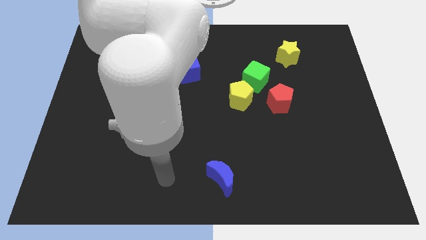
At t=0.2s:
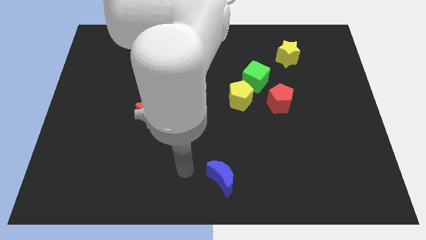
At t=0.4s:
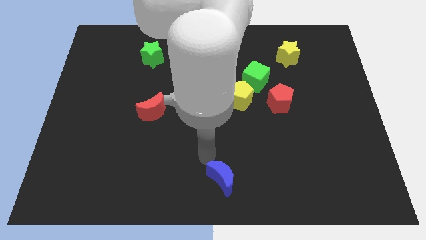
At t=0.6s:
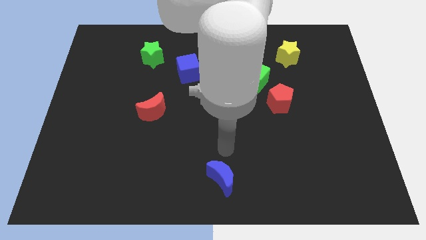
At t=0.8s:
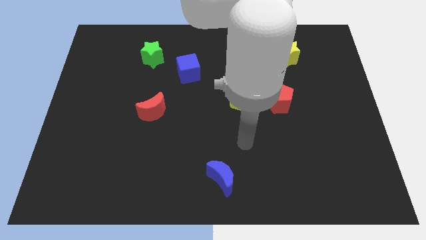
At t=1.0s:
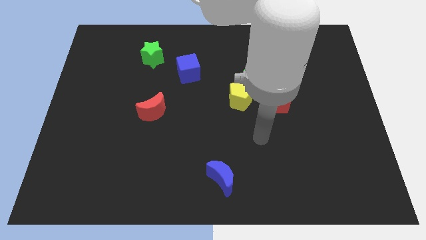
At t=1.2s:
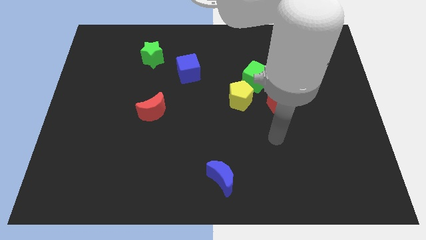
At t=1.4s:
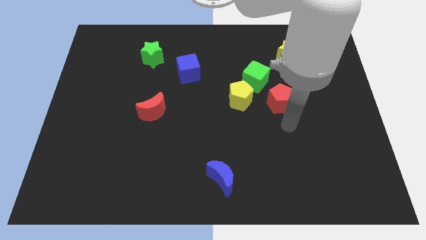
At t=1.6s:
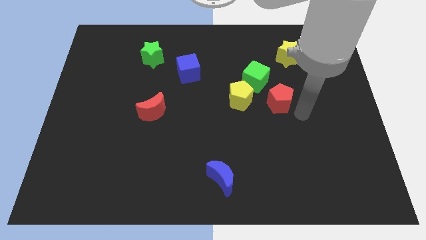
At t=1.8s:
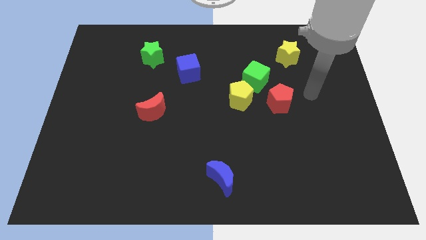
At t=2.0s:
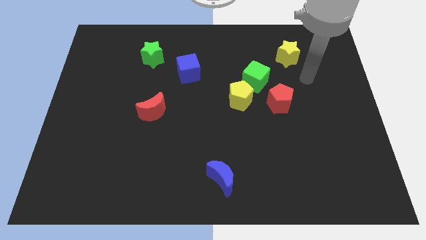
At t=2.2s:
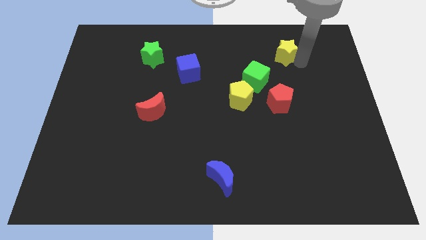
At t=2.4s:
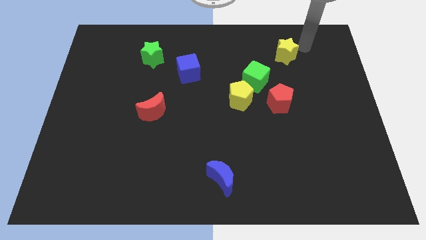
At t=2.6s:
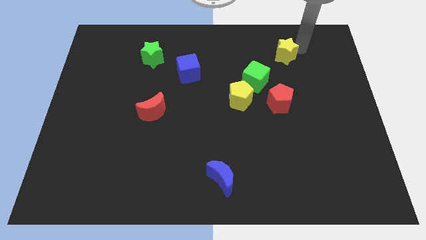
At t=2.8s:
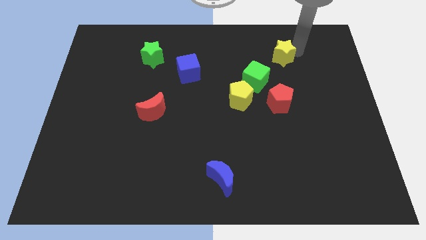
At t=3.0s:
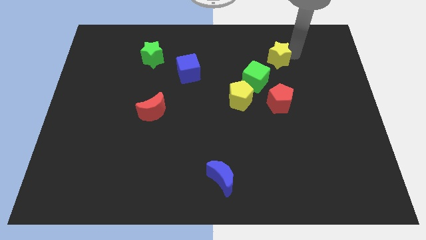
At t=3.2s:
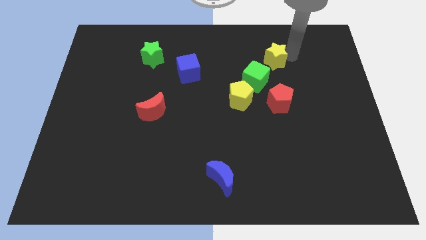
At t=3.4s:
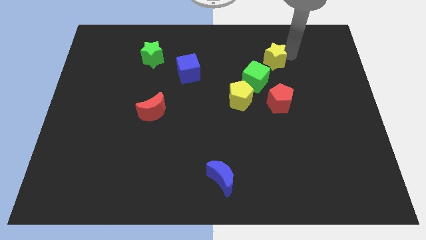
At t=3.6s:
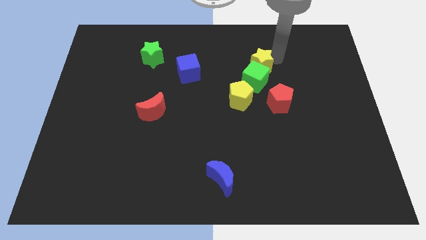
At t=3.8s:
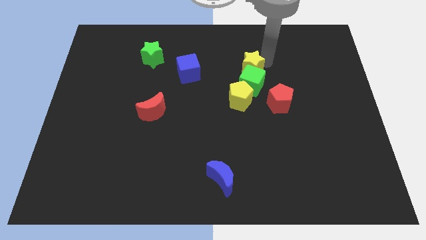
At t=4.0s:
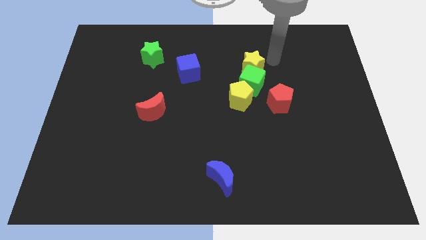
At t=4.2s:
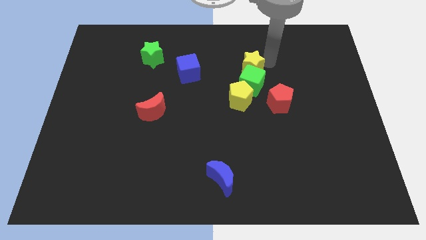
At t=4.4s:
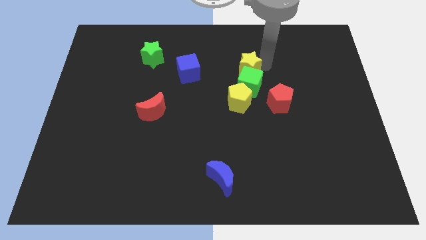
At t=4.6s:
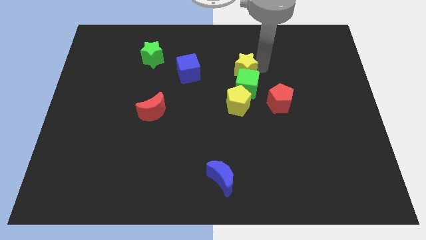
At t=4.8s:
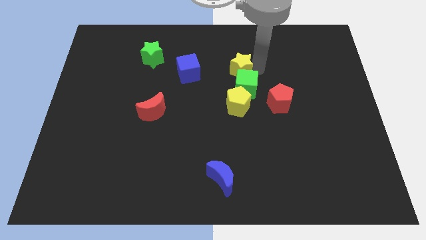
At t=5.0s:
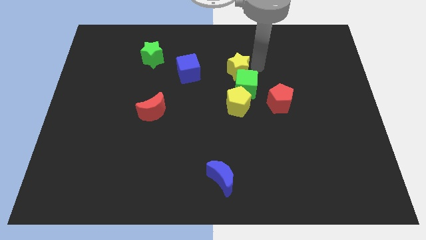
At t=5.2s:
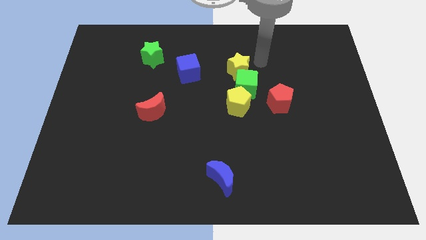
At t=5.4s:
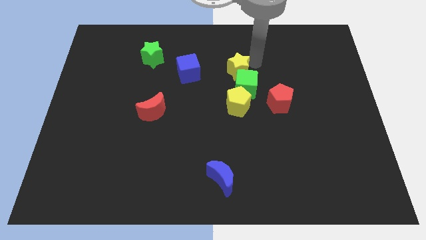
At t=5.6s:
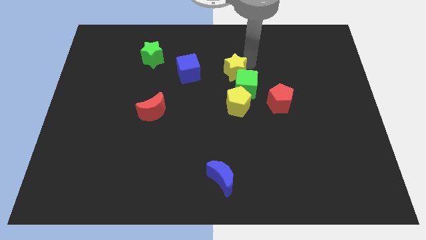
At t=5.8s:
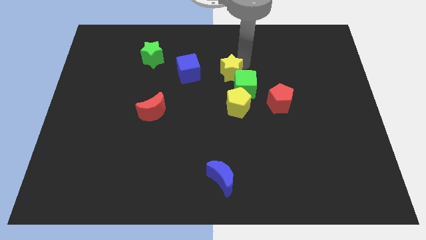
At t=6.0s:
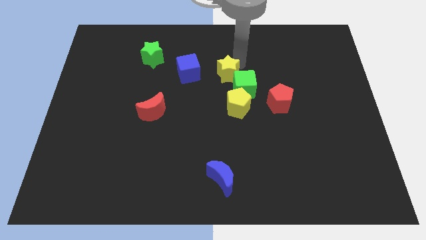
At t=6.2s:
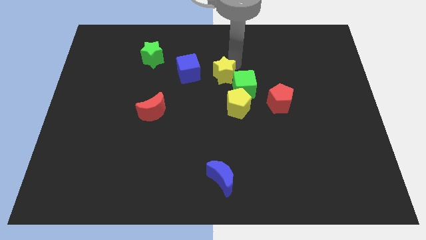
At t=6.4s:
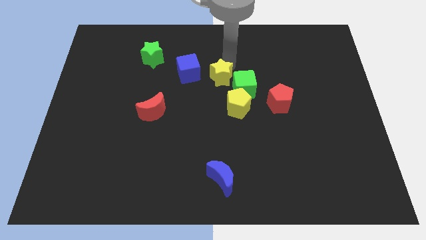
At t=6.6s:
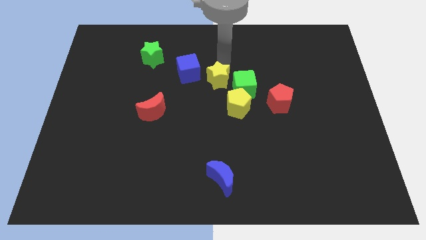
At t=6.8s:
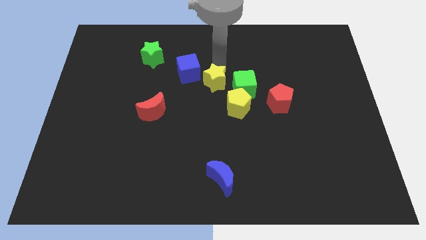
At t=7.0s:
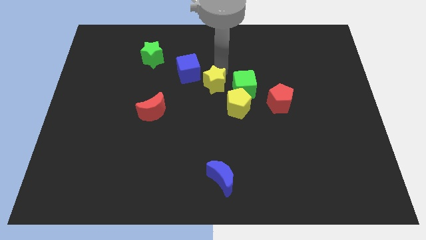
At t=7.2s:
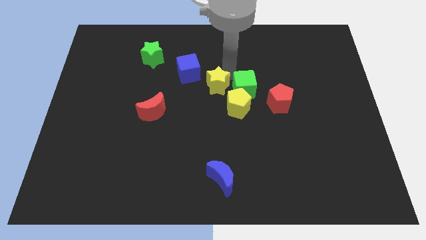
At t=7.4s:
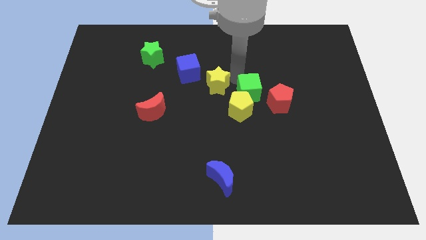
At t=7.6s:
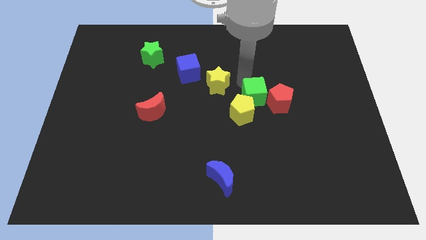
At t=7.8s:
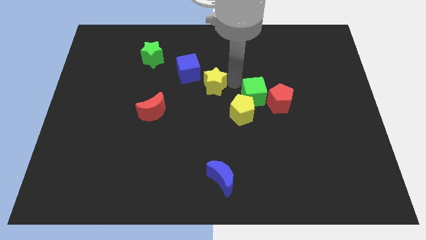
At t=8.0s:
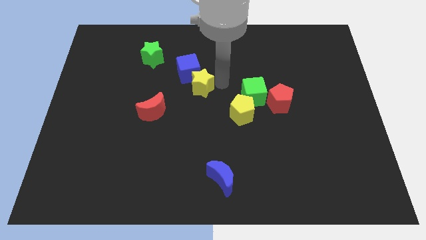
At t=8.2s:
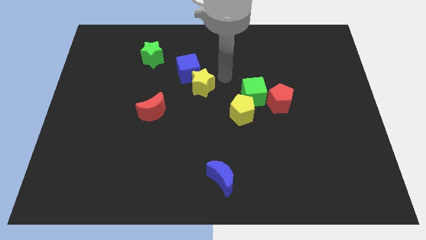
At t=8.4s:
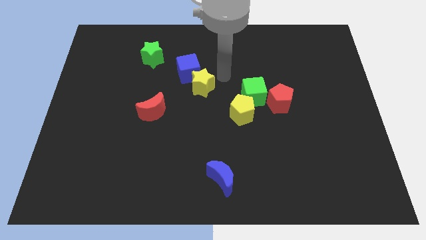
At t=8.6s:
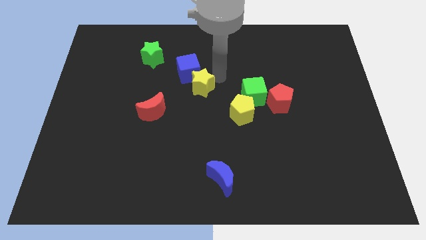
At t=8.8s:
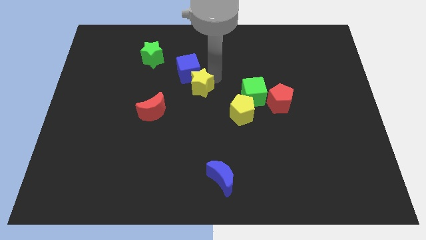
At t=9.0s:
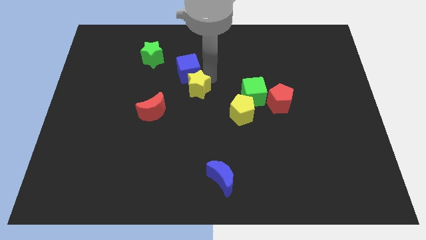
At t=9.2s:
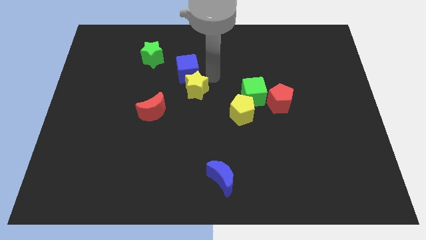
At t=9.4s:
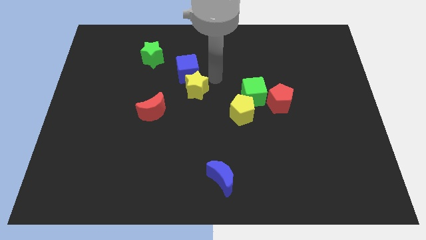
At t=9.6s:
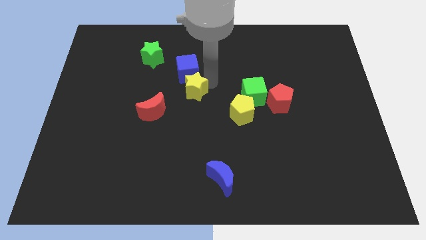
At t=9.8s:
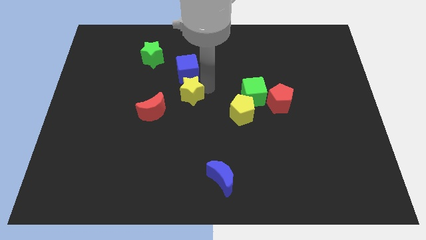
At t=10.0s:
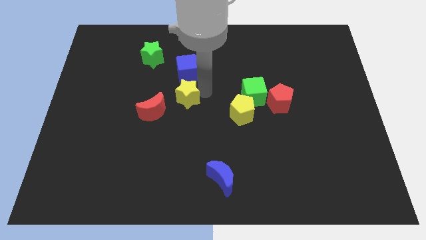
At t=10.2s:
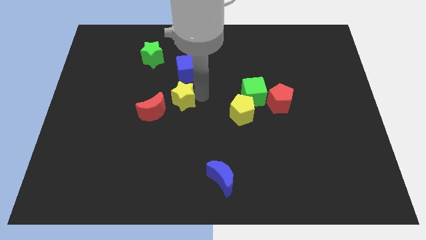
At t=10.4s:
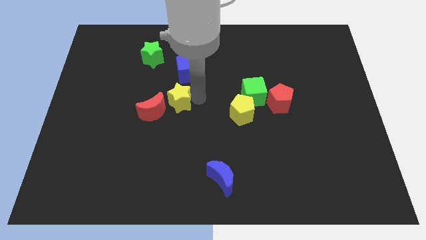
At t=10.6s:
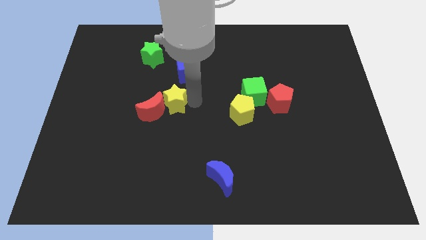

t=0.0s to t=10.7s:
push the yellow star close to the red moon

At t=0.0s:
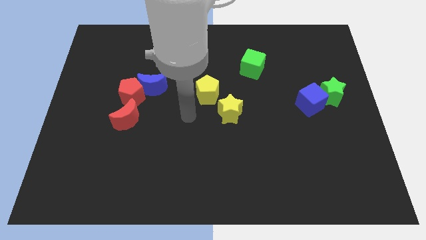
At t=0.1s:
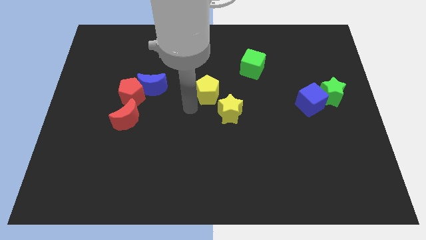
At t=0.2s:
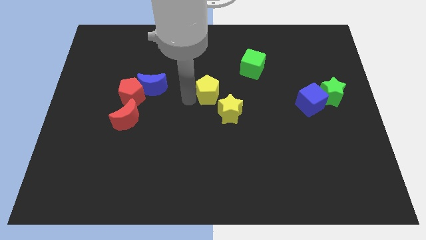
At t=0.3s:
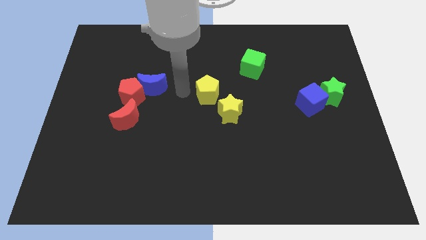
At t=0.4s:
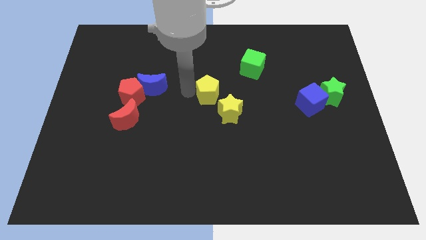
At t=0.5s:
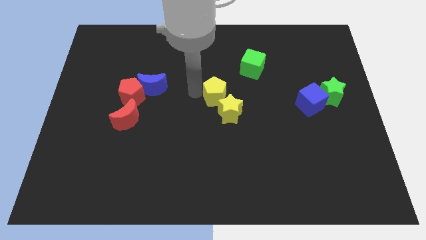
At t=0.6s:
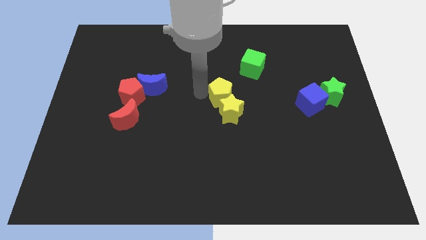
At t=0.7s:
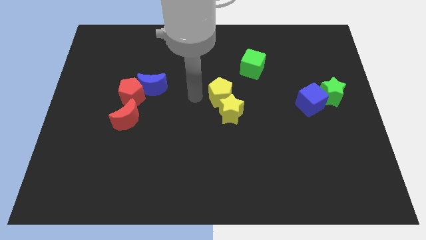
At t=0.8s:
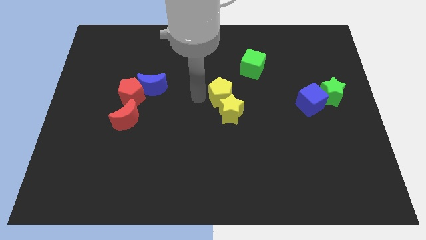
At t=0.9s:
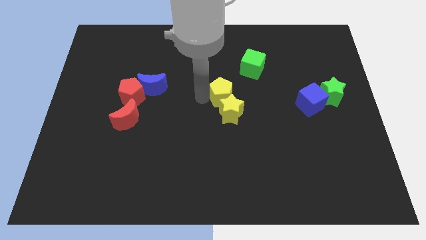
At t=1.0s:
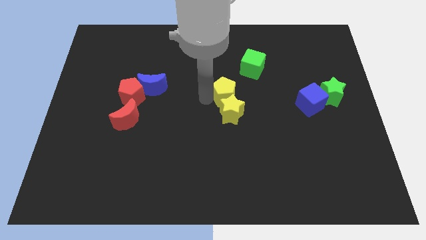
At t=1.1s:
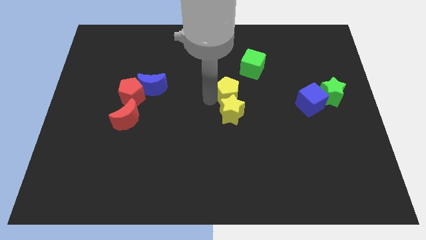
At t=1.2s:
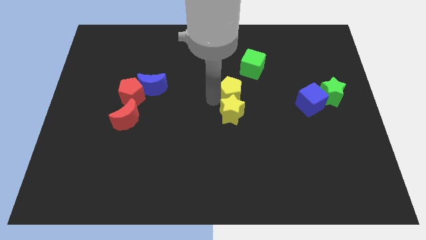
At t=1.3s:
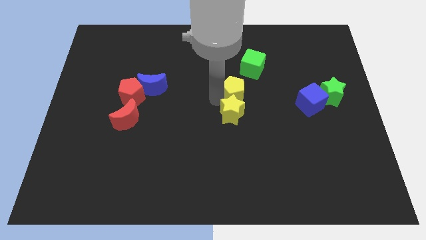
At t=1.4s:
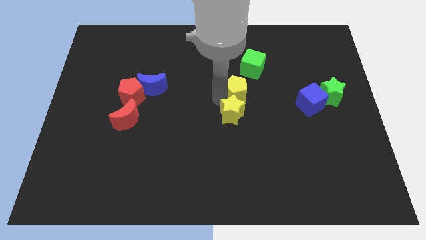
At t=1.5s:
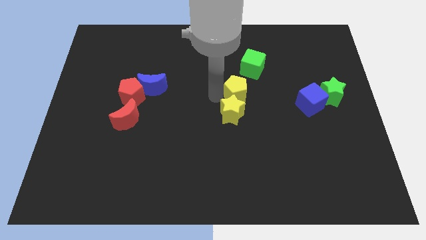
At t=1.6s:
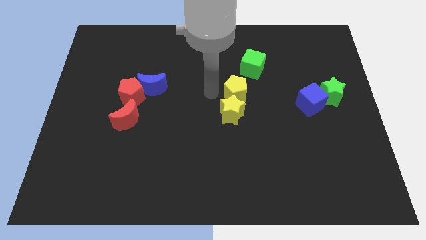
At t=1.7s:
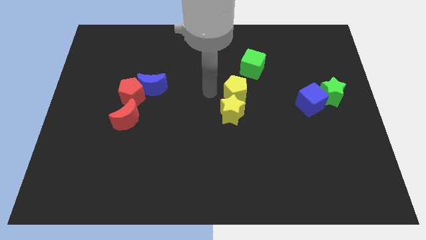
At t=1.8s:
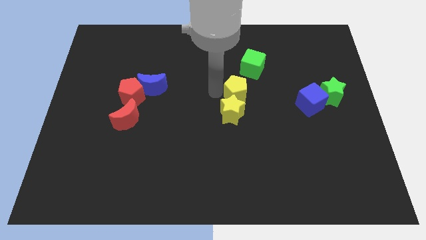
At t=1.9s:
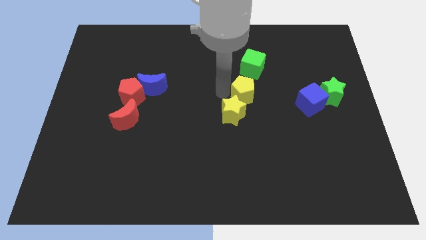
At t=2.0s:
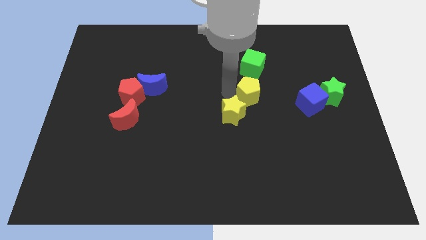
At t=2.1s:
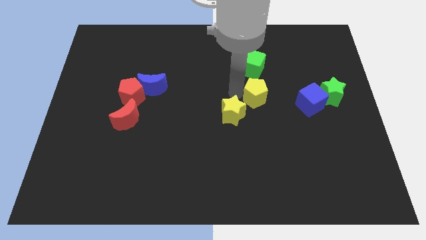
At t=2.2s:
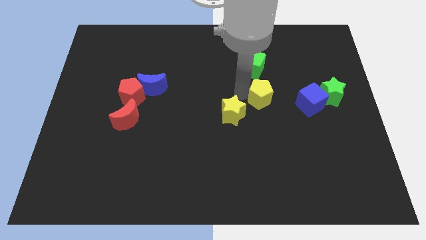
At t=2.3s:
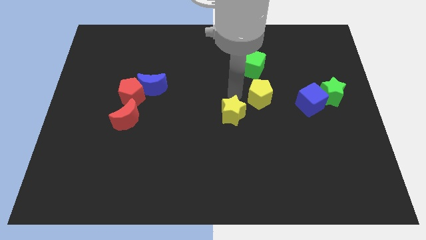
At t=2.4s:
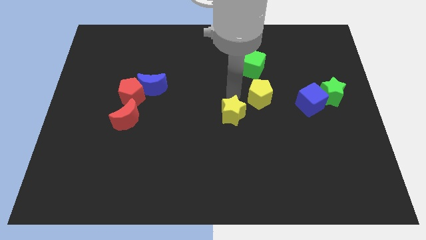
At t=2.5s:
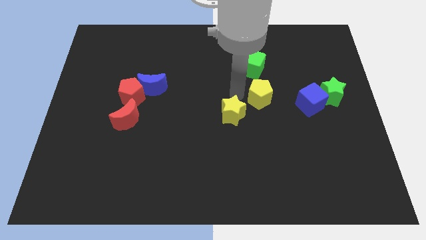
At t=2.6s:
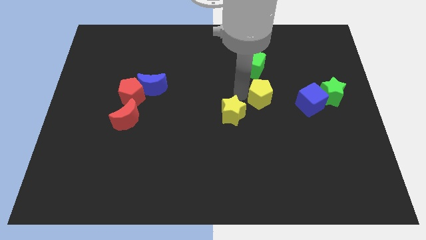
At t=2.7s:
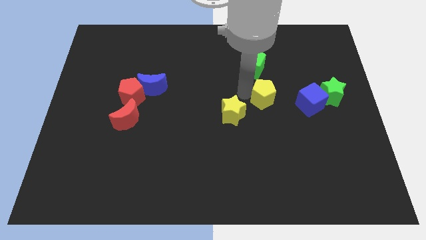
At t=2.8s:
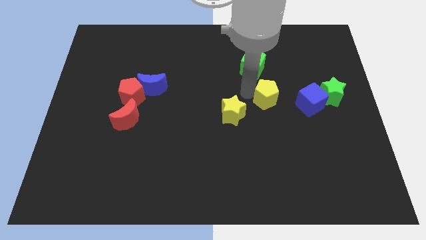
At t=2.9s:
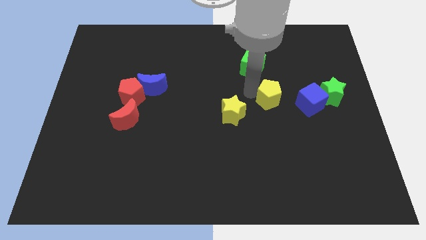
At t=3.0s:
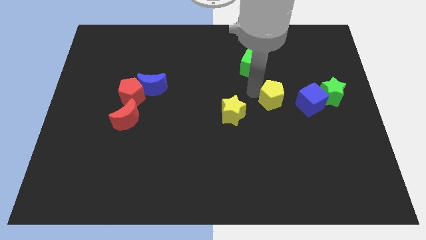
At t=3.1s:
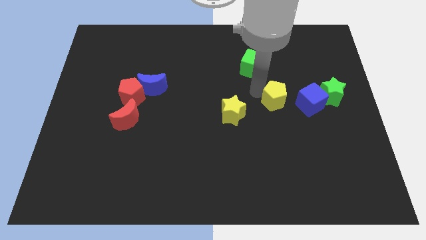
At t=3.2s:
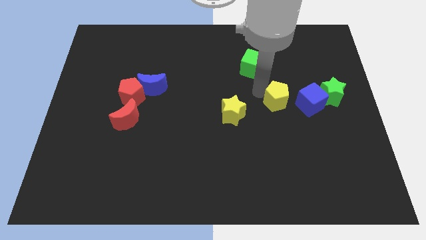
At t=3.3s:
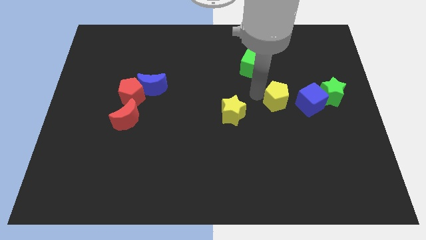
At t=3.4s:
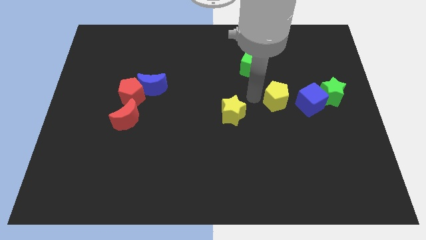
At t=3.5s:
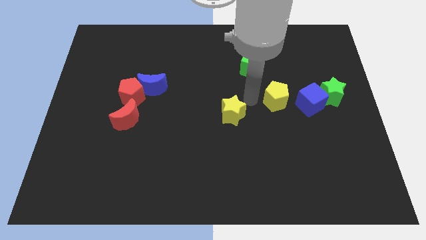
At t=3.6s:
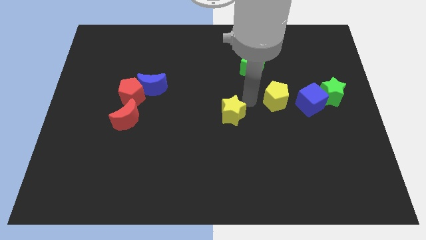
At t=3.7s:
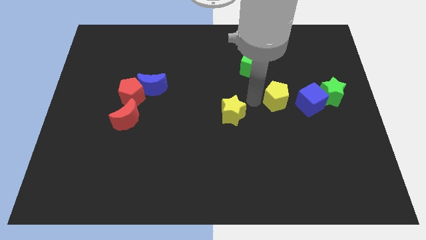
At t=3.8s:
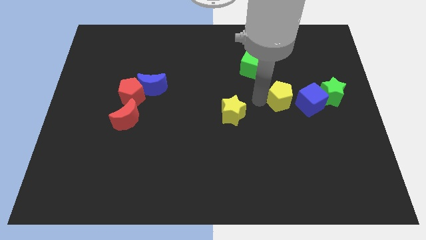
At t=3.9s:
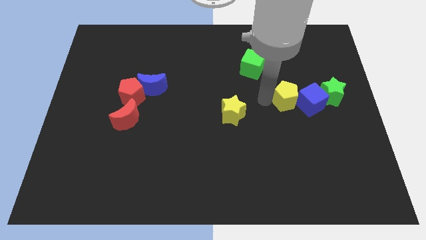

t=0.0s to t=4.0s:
put the yellow pentagon to the blue cube
